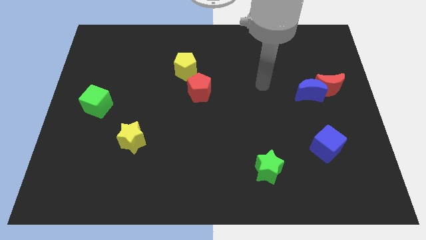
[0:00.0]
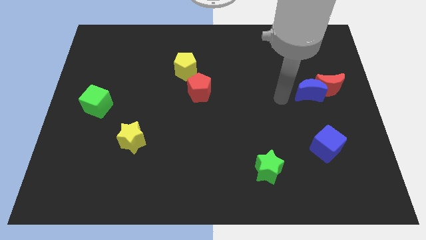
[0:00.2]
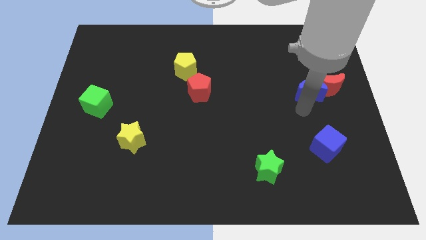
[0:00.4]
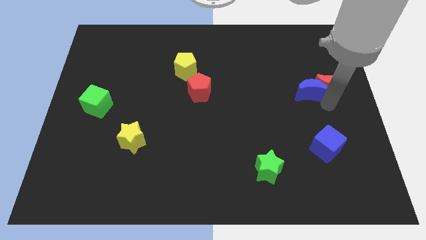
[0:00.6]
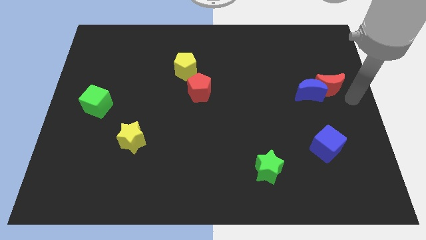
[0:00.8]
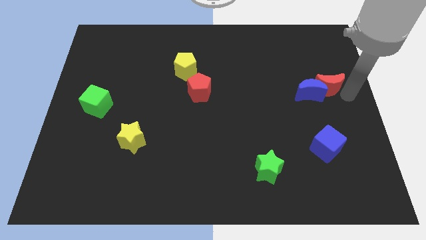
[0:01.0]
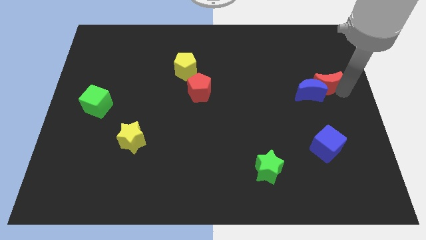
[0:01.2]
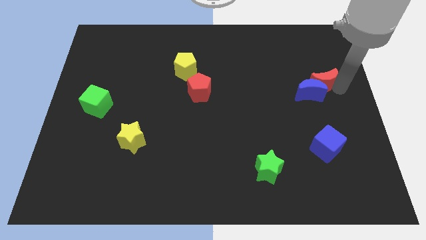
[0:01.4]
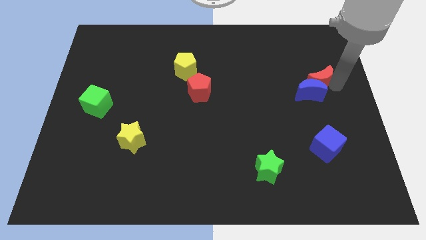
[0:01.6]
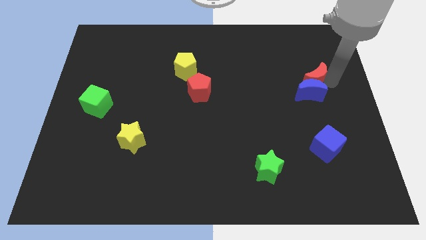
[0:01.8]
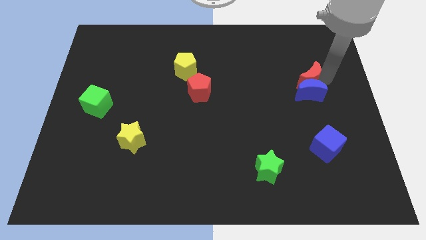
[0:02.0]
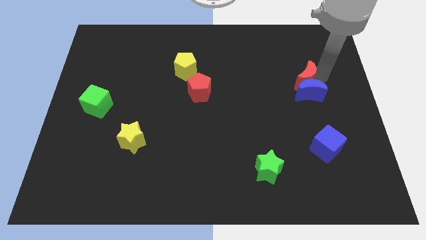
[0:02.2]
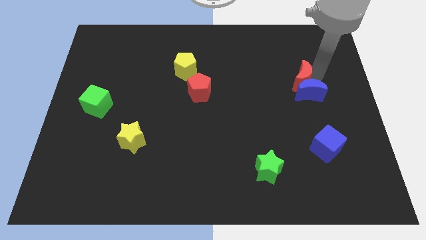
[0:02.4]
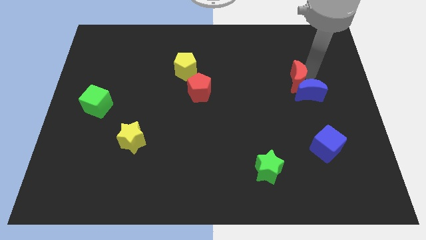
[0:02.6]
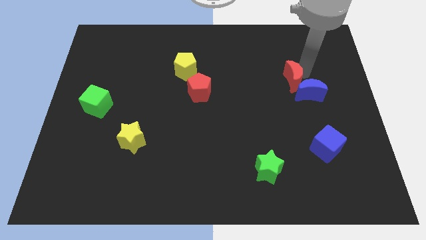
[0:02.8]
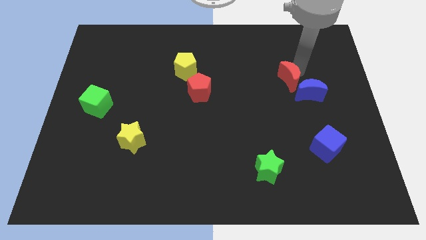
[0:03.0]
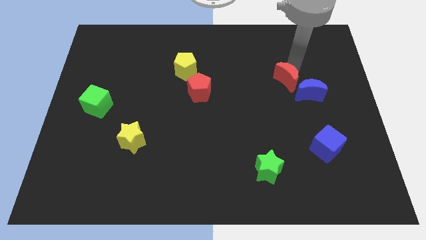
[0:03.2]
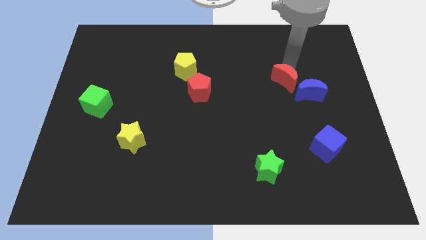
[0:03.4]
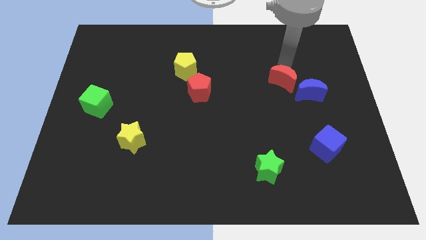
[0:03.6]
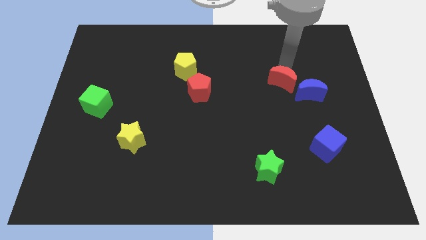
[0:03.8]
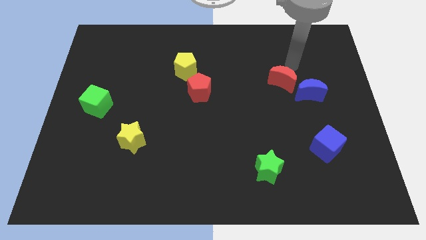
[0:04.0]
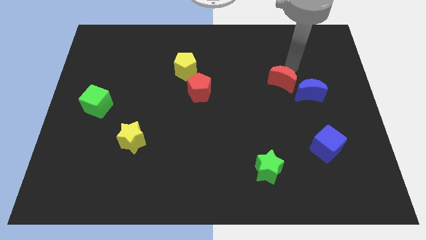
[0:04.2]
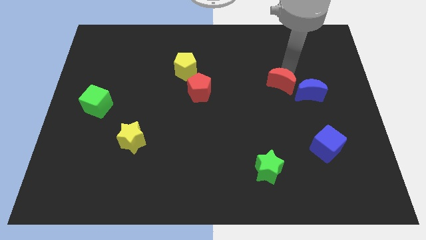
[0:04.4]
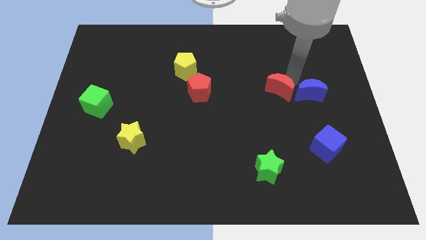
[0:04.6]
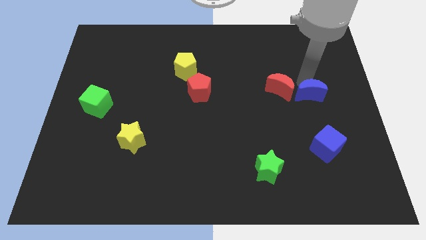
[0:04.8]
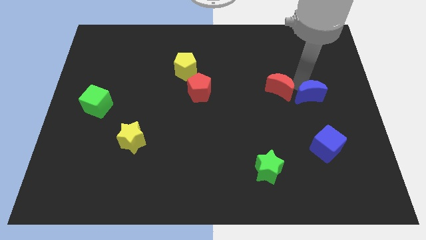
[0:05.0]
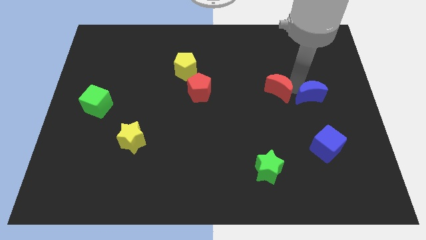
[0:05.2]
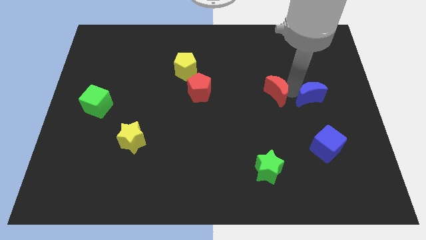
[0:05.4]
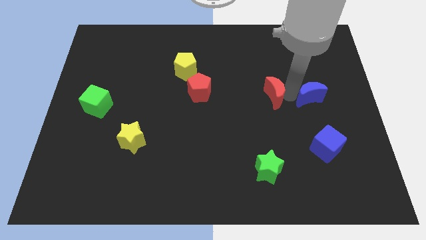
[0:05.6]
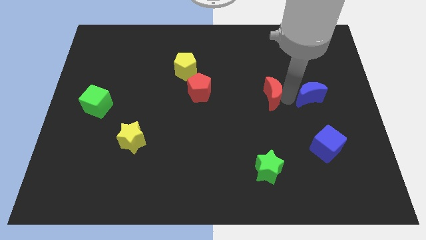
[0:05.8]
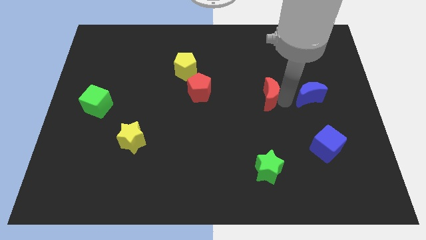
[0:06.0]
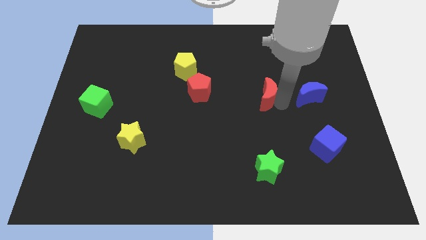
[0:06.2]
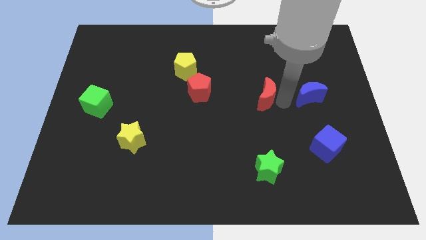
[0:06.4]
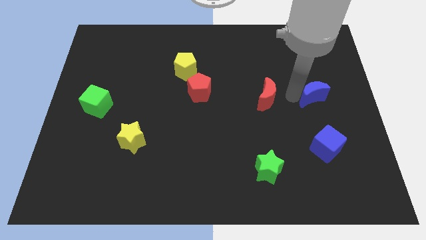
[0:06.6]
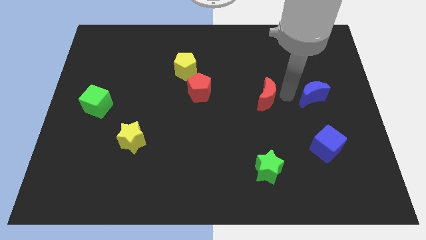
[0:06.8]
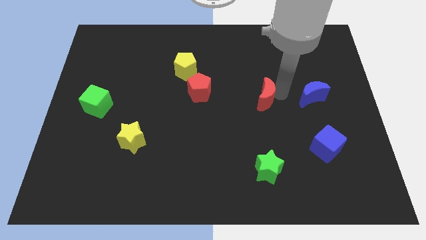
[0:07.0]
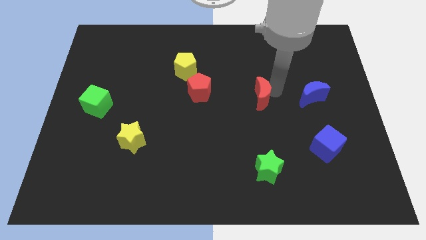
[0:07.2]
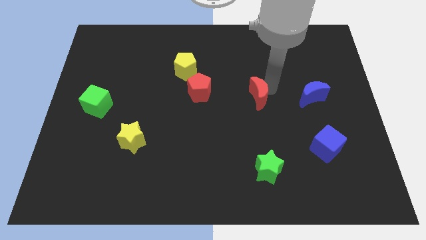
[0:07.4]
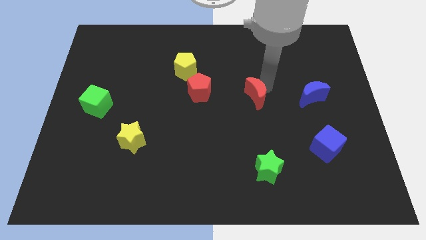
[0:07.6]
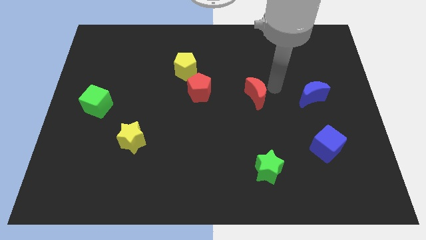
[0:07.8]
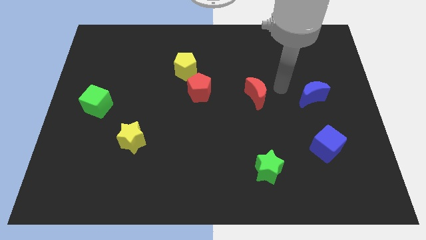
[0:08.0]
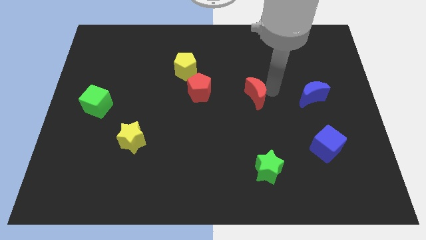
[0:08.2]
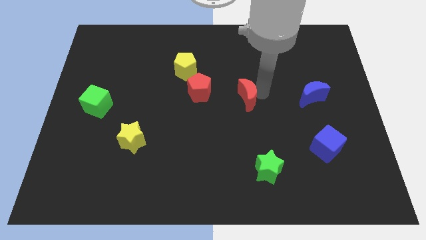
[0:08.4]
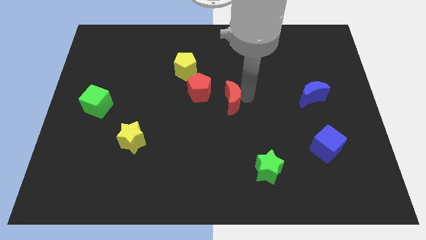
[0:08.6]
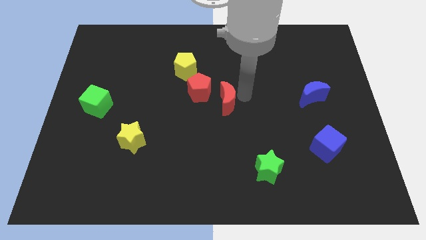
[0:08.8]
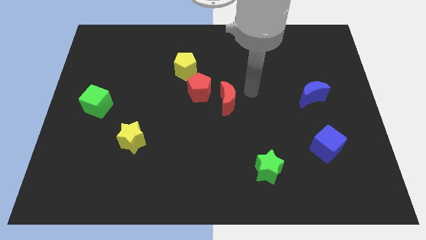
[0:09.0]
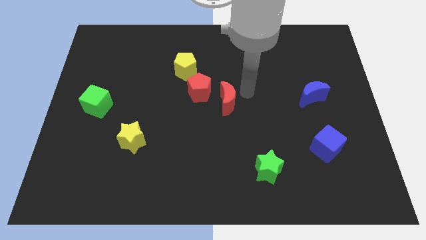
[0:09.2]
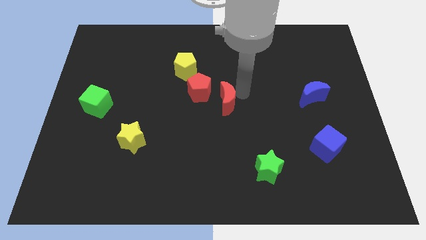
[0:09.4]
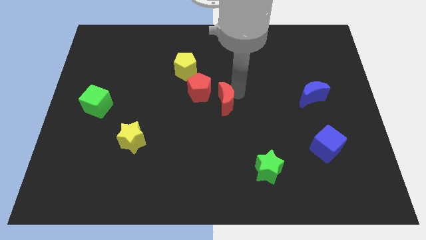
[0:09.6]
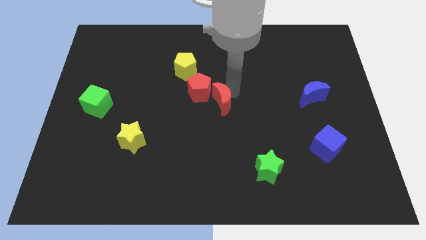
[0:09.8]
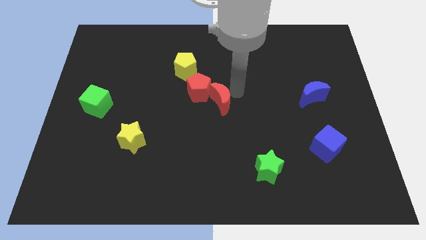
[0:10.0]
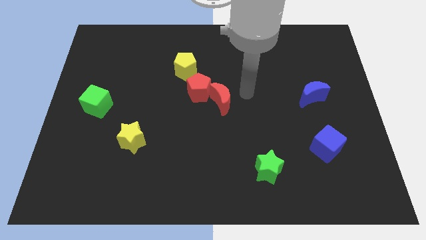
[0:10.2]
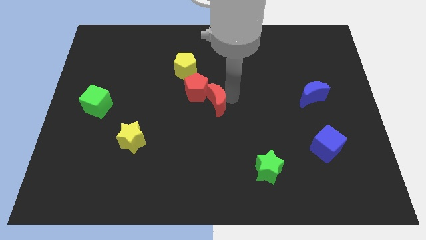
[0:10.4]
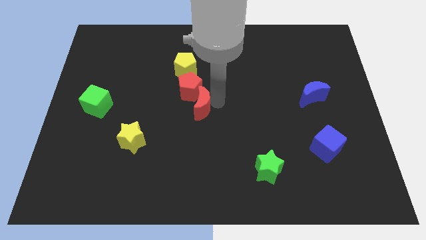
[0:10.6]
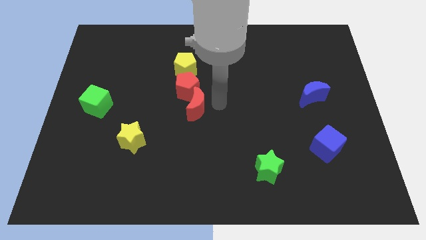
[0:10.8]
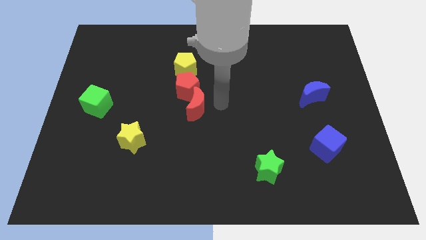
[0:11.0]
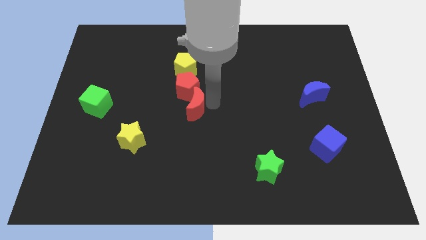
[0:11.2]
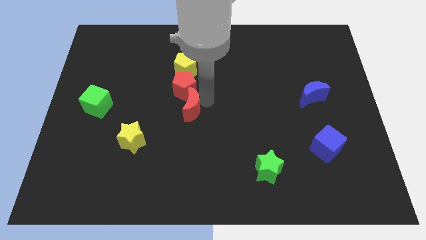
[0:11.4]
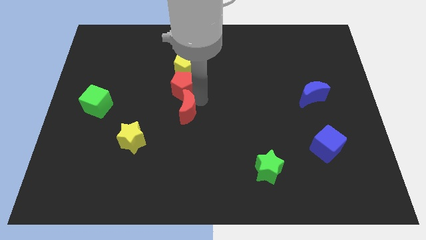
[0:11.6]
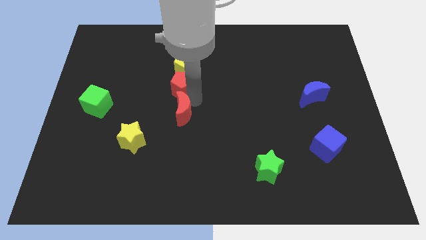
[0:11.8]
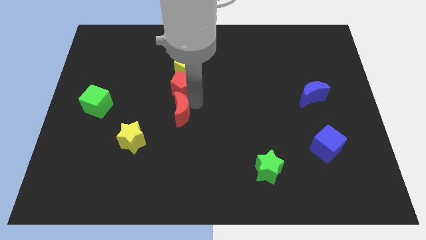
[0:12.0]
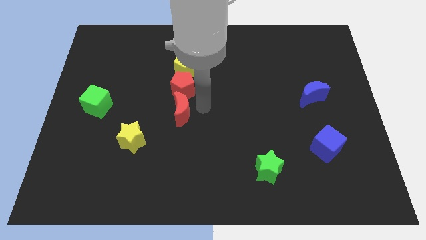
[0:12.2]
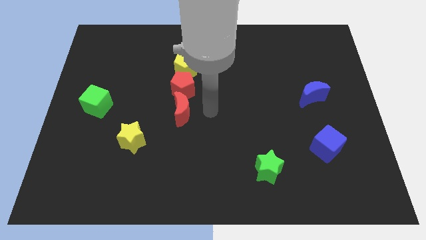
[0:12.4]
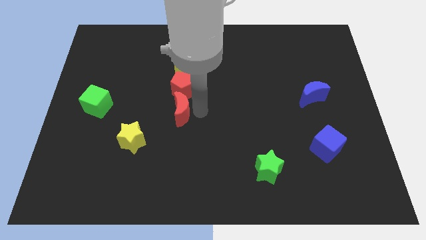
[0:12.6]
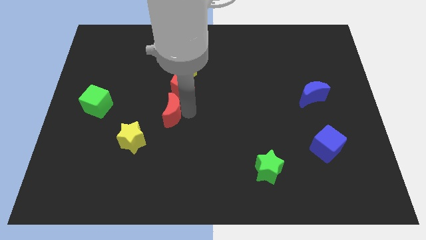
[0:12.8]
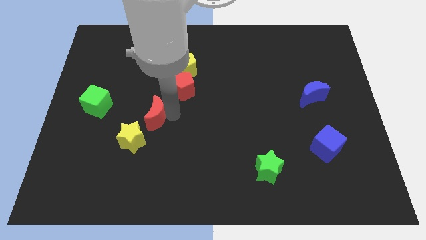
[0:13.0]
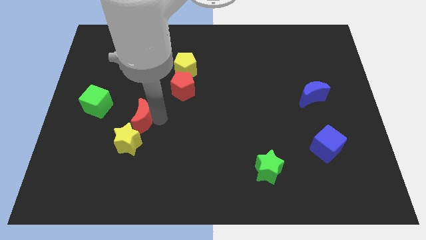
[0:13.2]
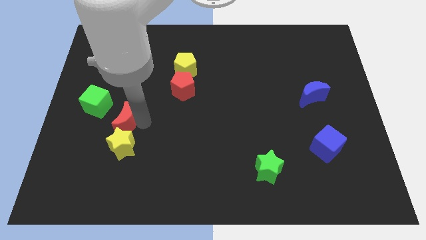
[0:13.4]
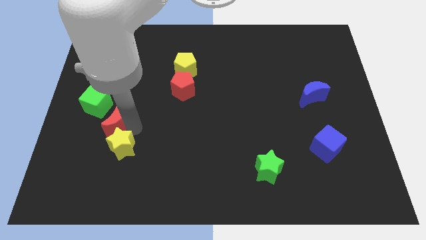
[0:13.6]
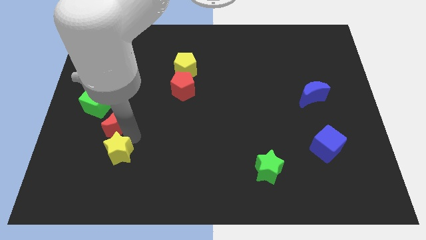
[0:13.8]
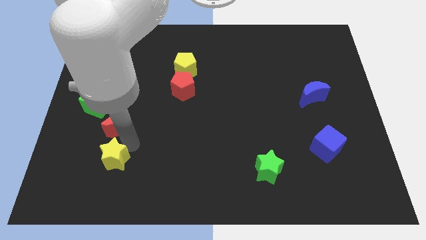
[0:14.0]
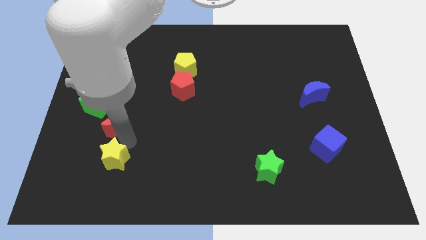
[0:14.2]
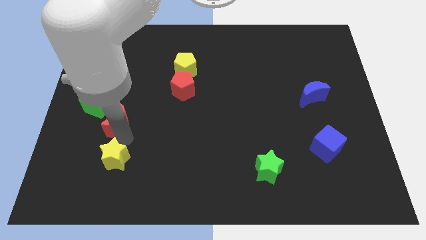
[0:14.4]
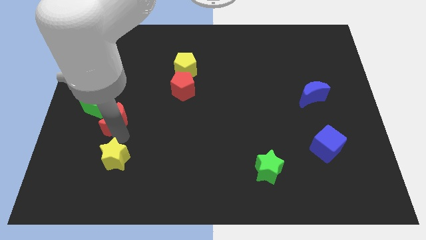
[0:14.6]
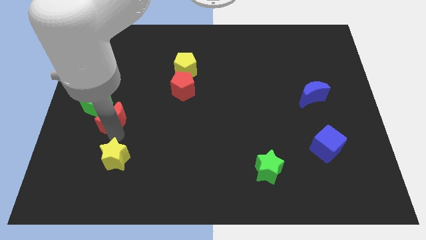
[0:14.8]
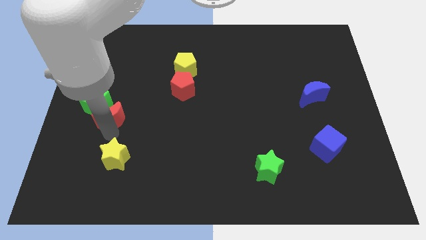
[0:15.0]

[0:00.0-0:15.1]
slide the red moon close to the green cube
